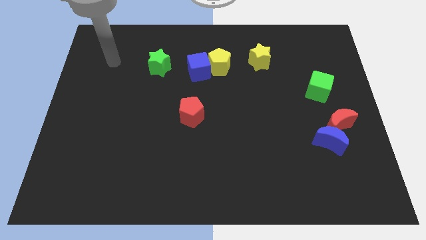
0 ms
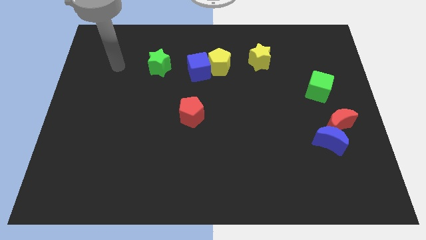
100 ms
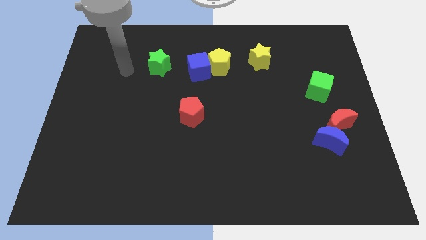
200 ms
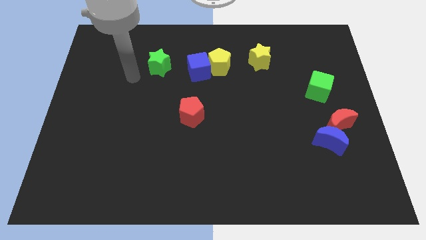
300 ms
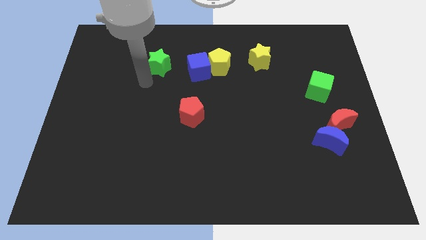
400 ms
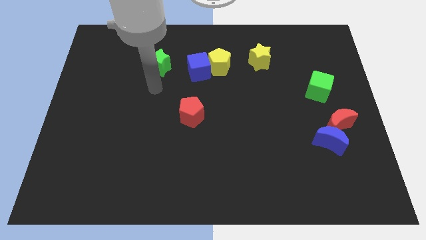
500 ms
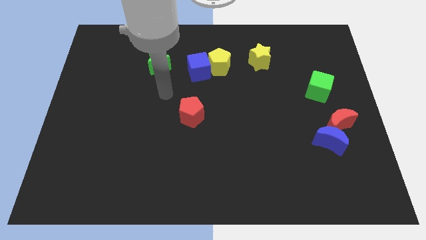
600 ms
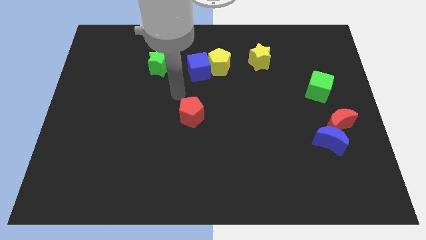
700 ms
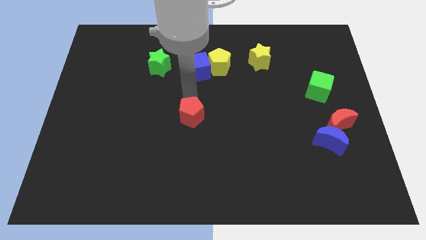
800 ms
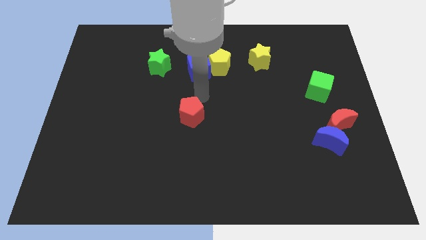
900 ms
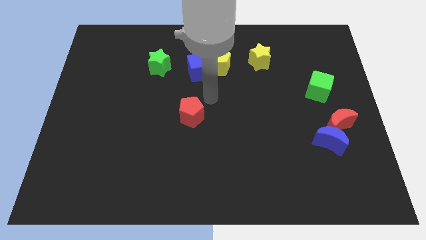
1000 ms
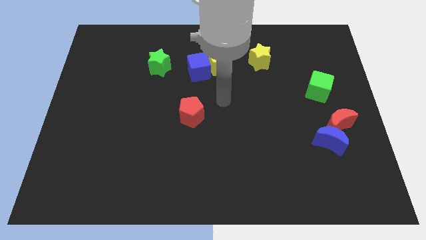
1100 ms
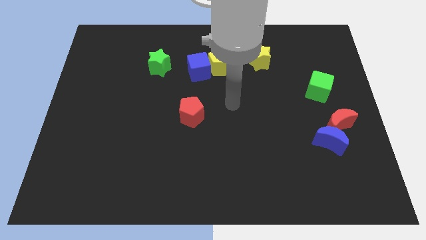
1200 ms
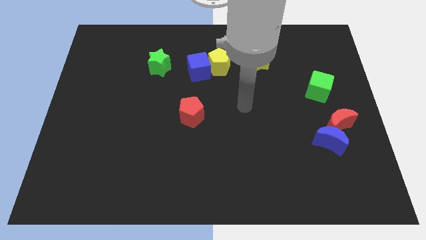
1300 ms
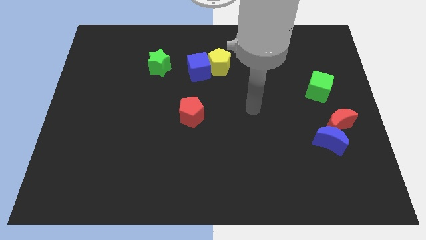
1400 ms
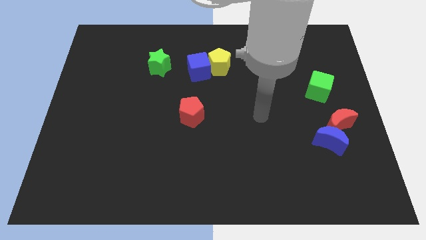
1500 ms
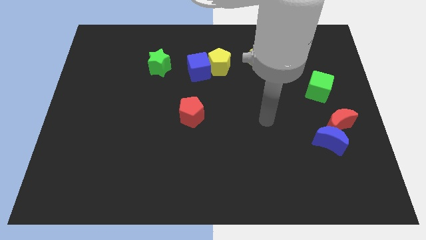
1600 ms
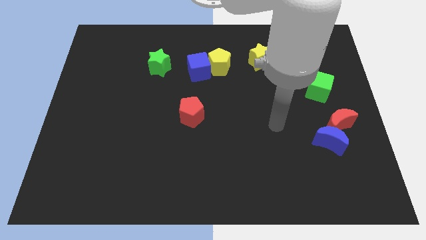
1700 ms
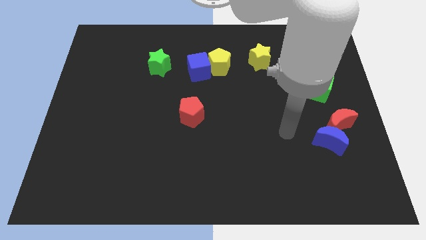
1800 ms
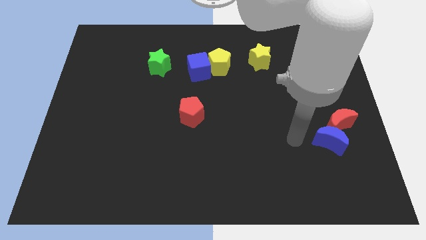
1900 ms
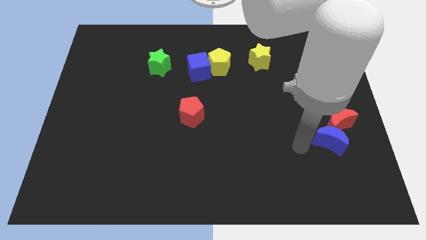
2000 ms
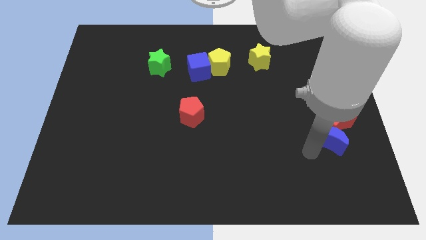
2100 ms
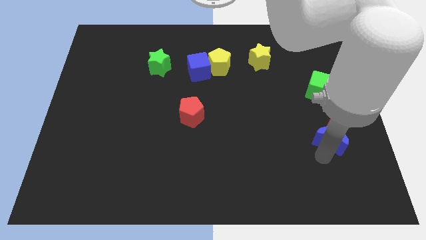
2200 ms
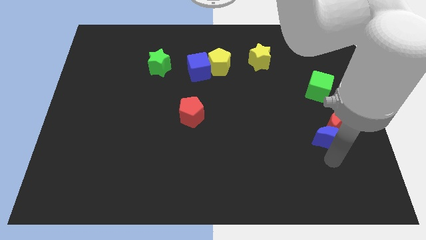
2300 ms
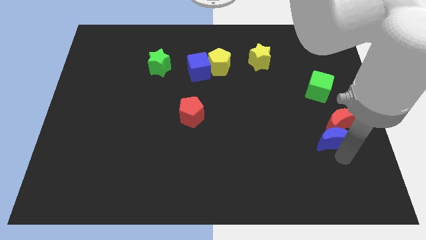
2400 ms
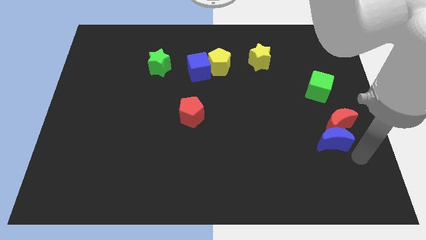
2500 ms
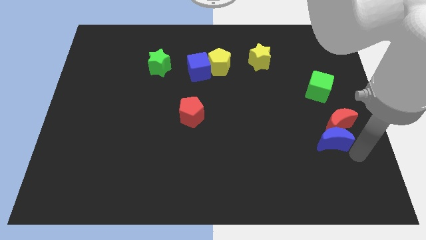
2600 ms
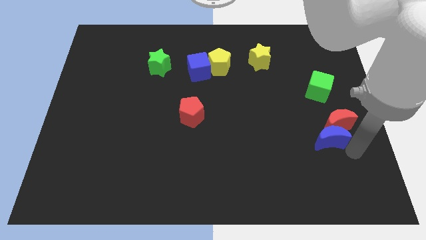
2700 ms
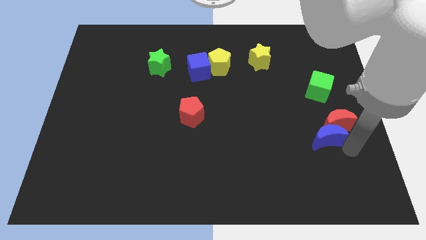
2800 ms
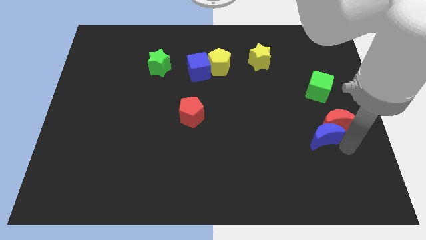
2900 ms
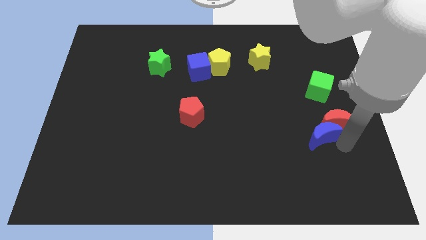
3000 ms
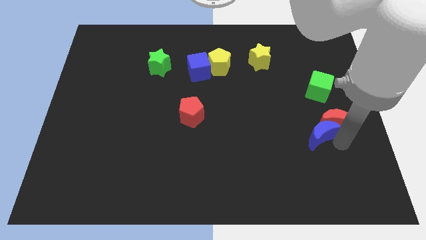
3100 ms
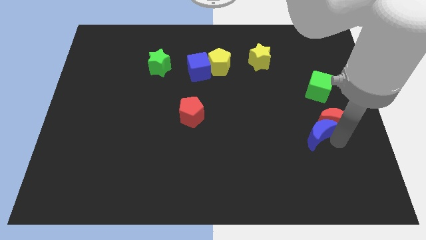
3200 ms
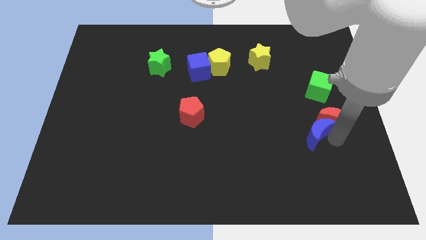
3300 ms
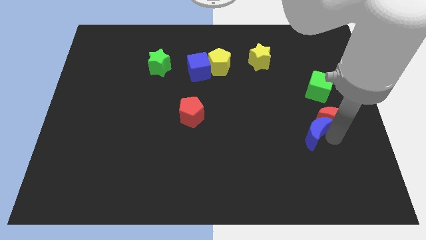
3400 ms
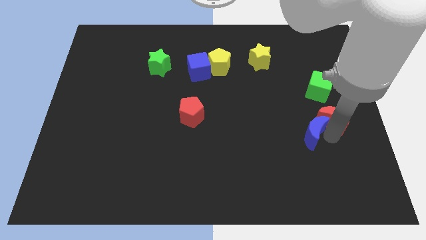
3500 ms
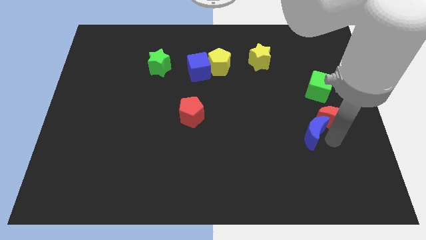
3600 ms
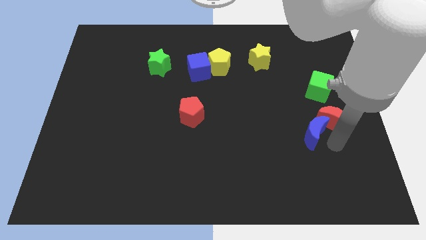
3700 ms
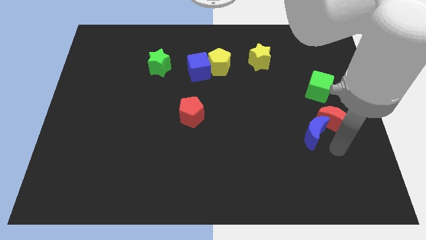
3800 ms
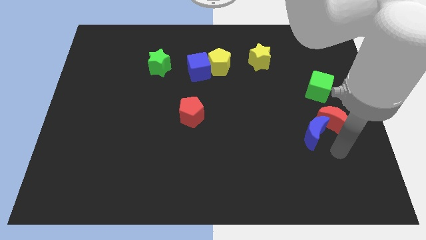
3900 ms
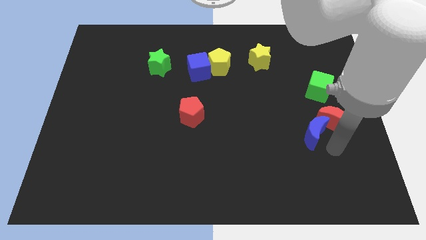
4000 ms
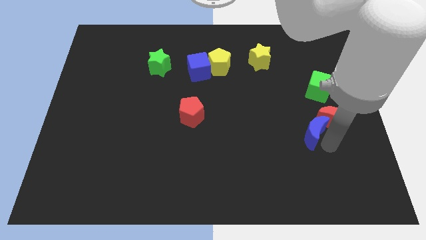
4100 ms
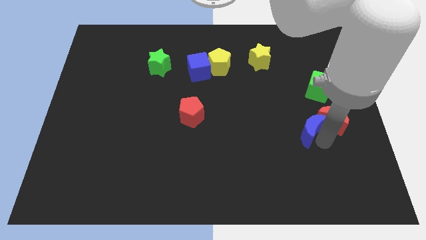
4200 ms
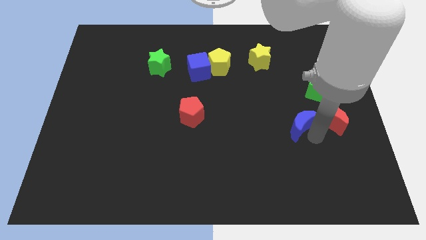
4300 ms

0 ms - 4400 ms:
push the blue moon up and then to the left somewhat

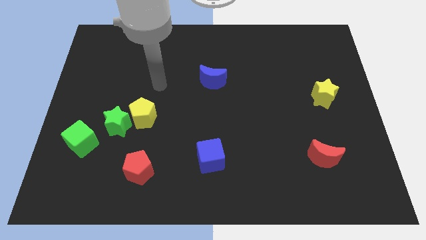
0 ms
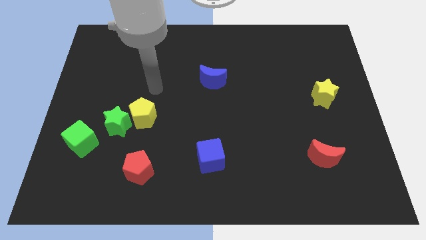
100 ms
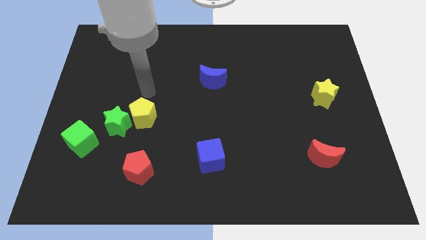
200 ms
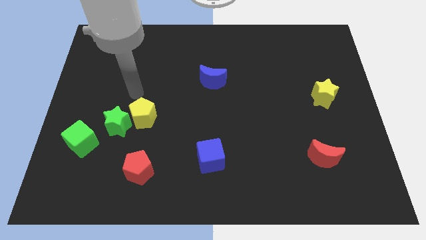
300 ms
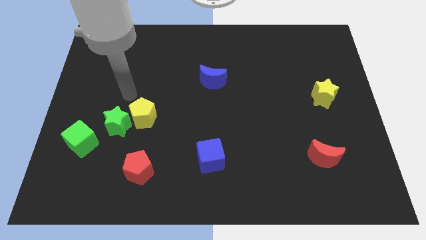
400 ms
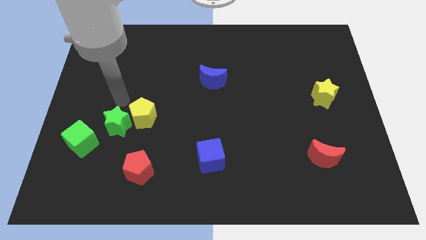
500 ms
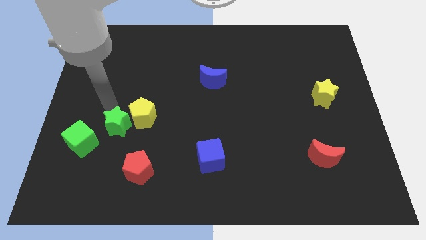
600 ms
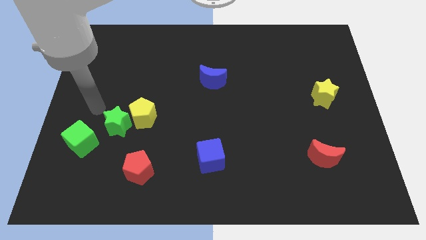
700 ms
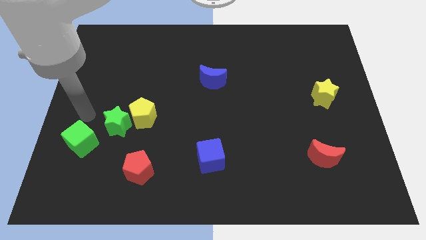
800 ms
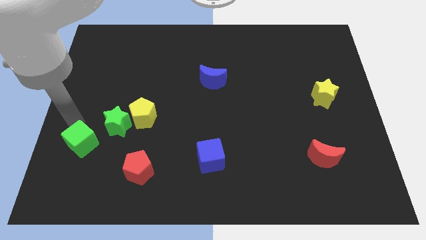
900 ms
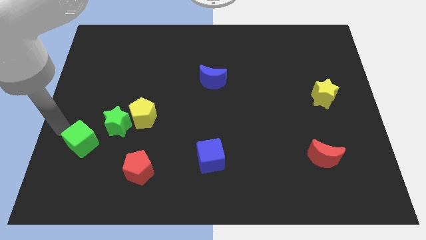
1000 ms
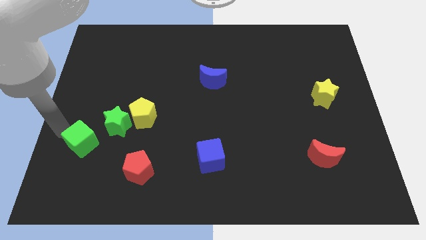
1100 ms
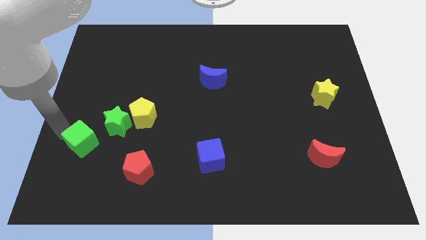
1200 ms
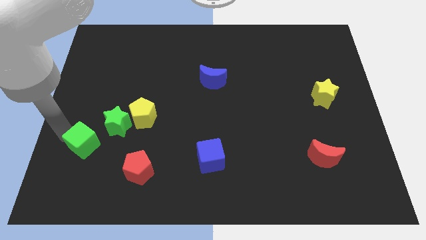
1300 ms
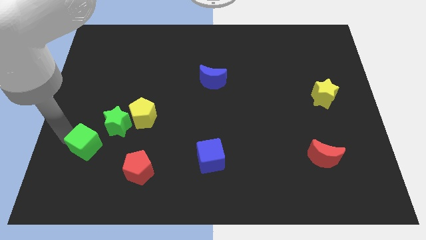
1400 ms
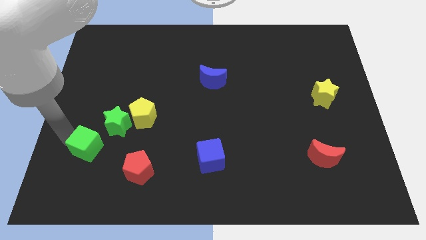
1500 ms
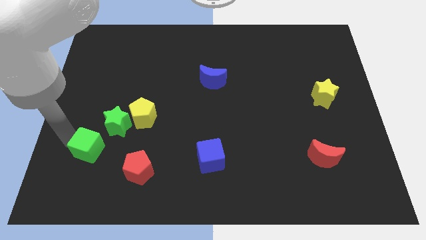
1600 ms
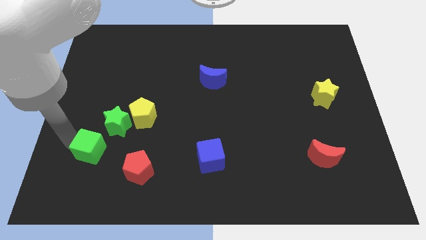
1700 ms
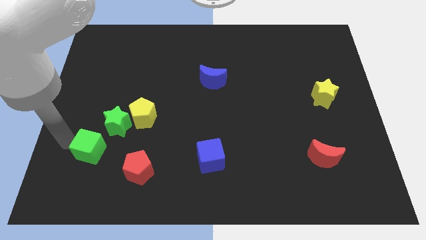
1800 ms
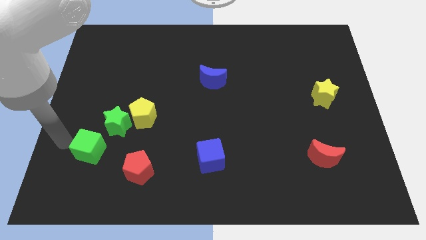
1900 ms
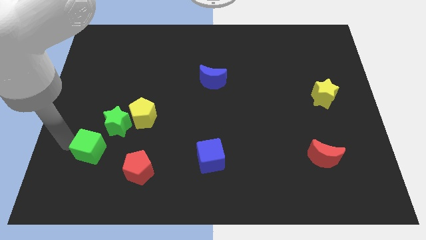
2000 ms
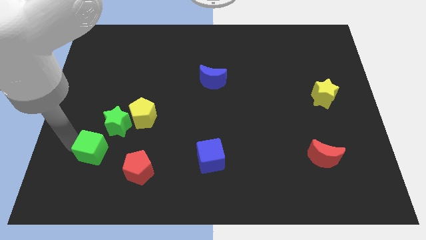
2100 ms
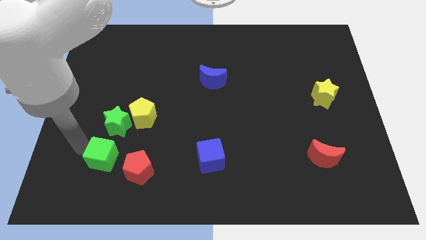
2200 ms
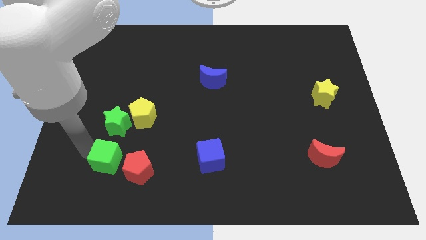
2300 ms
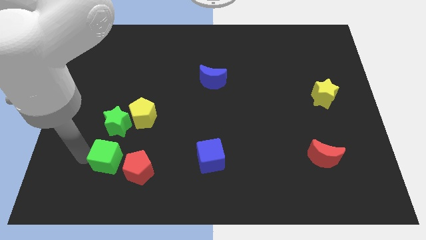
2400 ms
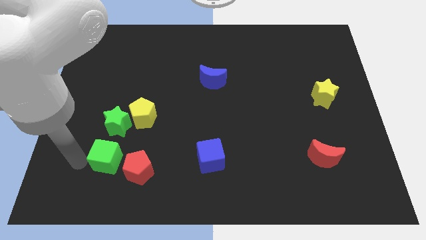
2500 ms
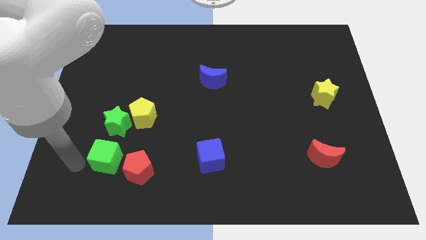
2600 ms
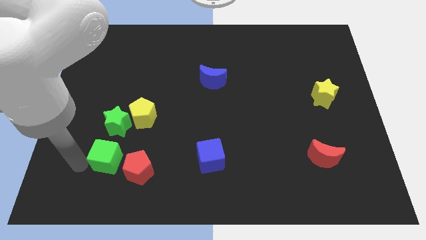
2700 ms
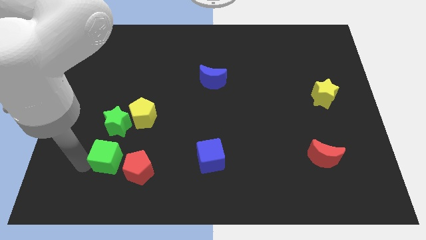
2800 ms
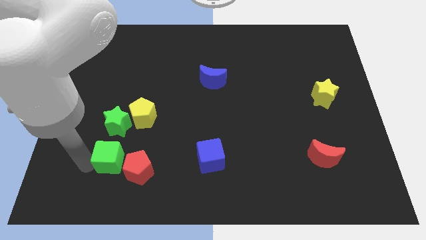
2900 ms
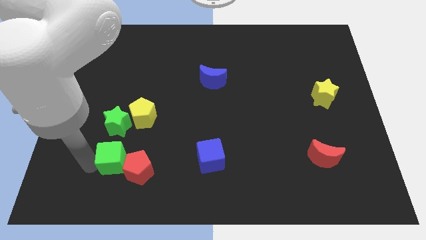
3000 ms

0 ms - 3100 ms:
move the green cube a little bit right

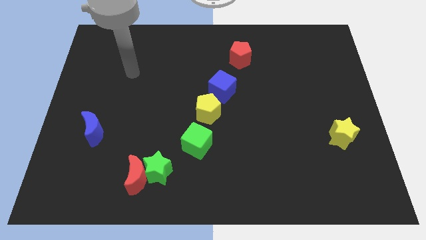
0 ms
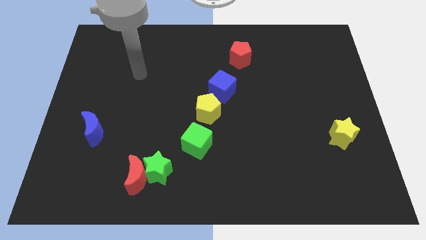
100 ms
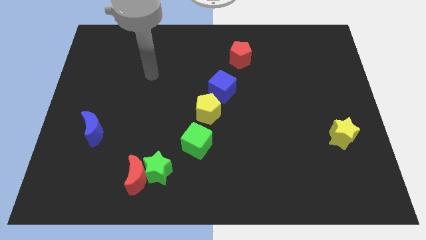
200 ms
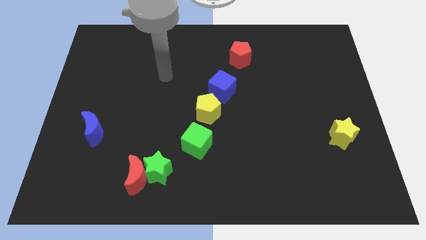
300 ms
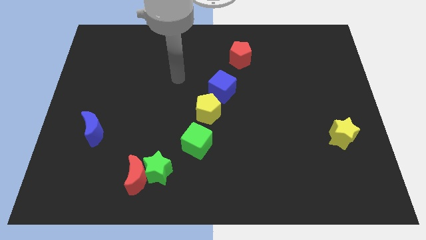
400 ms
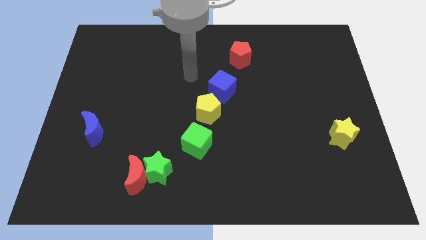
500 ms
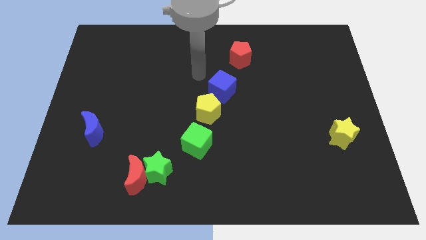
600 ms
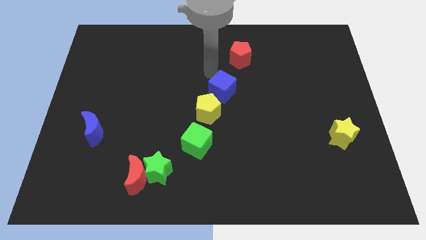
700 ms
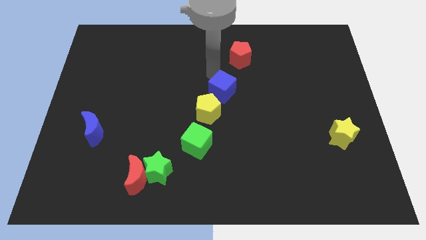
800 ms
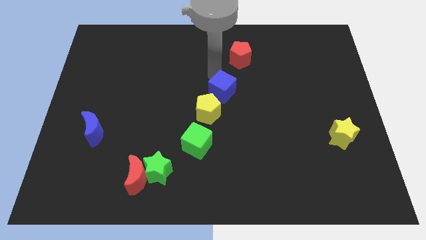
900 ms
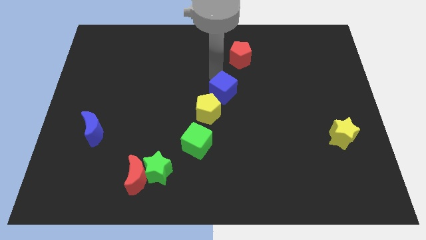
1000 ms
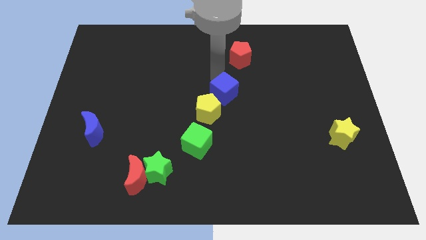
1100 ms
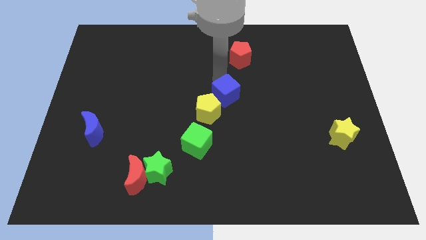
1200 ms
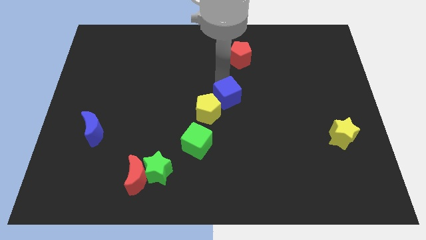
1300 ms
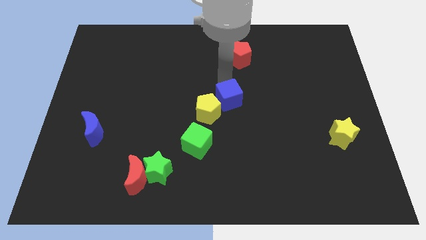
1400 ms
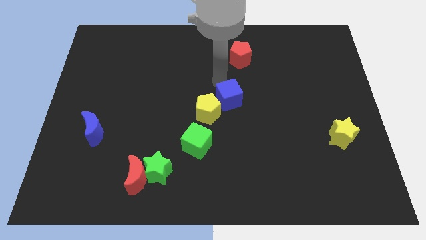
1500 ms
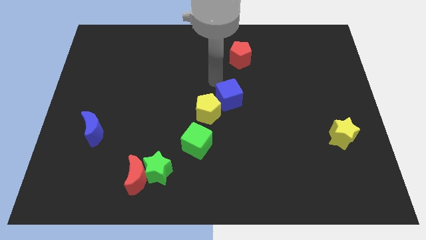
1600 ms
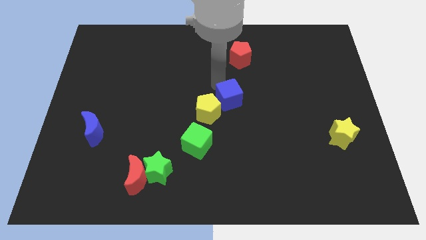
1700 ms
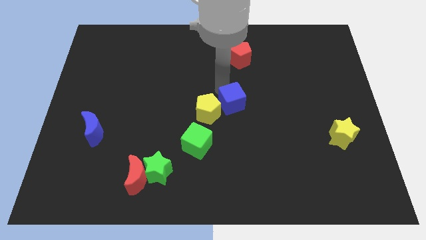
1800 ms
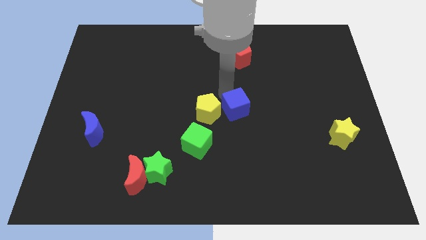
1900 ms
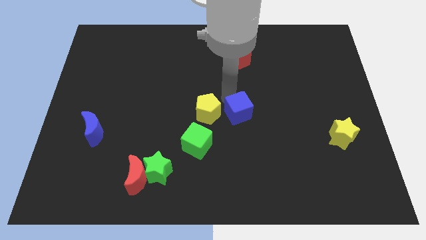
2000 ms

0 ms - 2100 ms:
push the blue cube downwards and right somewhat
